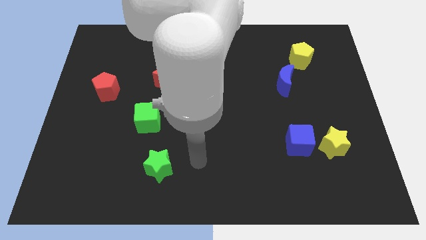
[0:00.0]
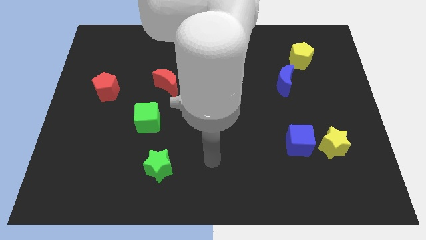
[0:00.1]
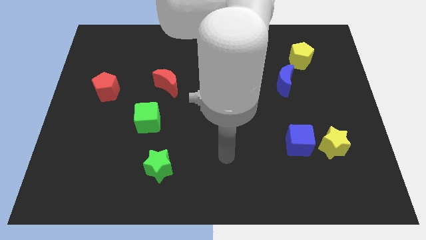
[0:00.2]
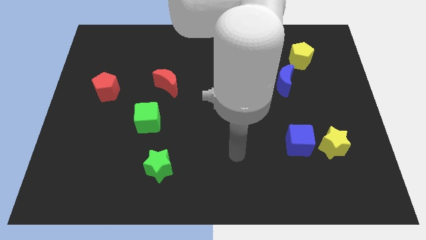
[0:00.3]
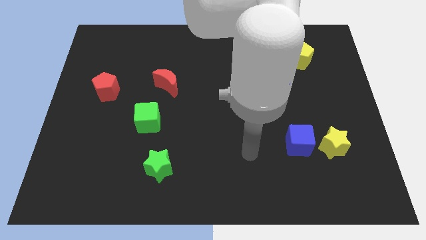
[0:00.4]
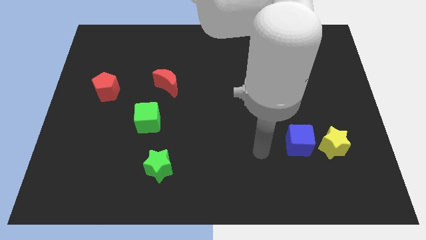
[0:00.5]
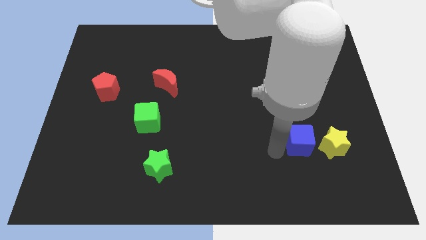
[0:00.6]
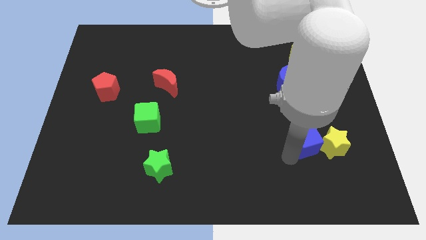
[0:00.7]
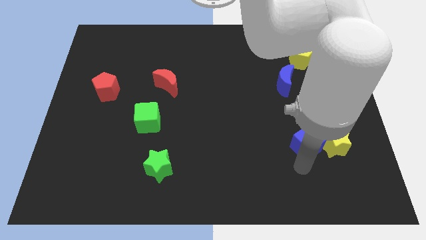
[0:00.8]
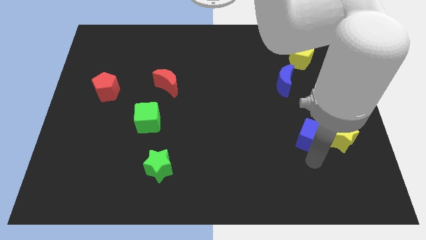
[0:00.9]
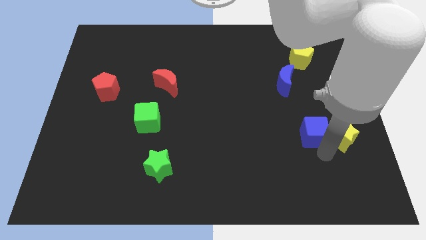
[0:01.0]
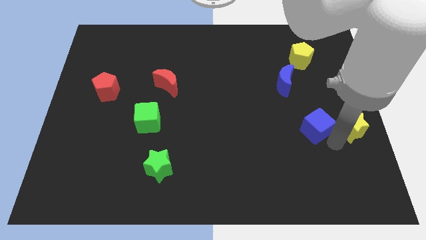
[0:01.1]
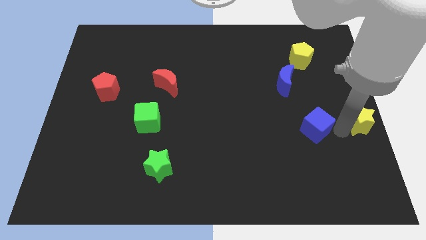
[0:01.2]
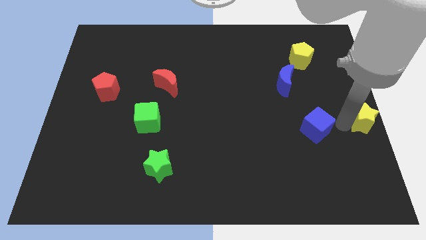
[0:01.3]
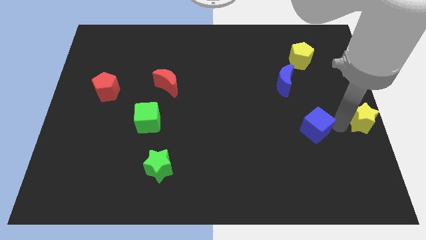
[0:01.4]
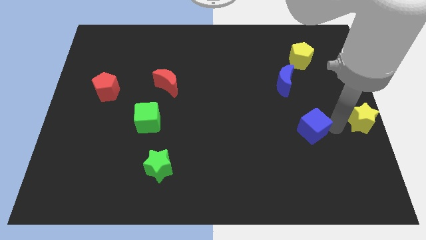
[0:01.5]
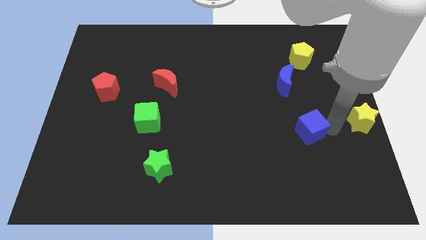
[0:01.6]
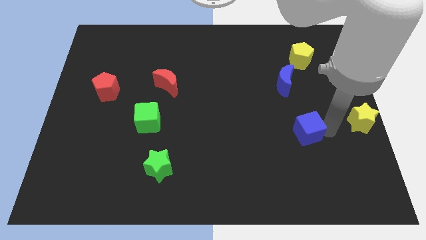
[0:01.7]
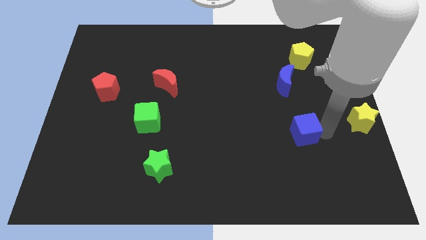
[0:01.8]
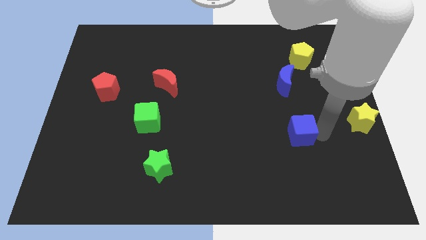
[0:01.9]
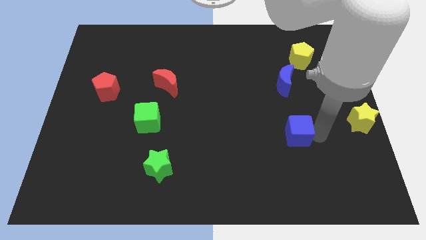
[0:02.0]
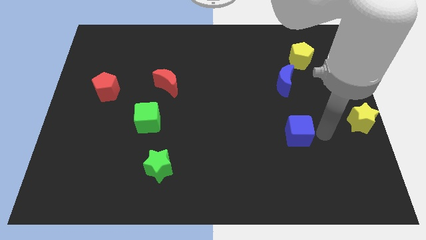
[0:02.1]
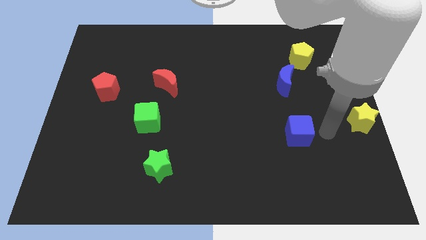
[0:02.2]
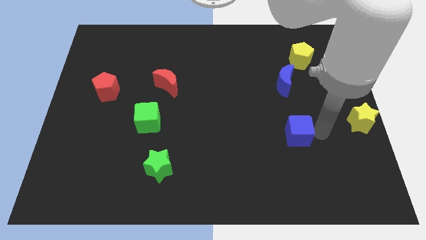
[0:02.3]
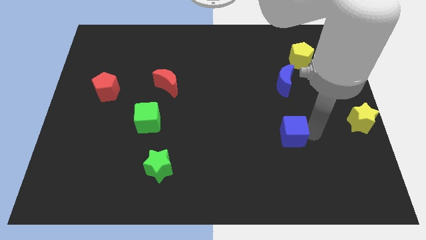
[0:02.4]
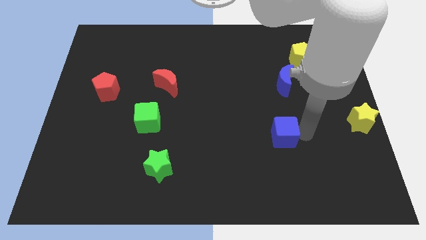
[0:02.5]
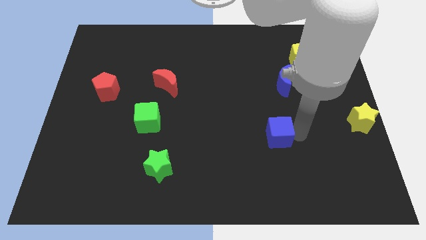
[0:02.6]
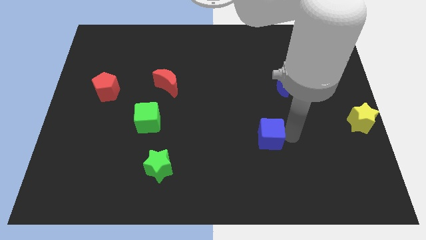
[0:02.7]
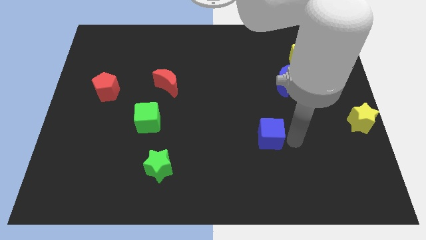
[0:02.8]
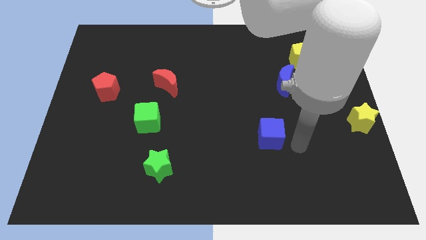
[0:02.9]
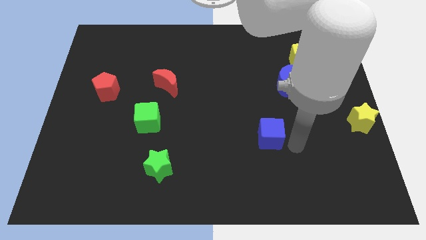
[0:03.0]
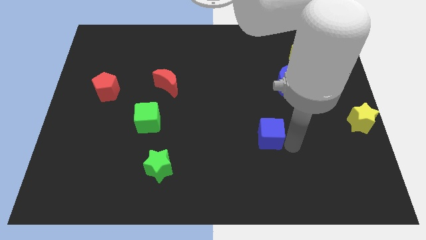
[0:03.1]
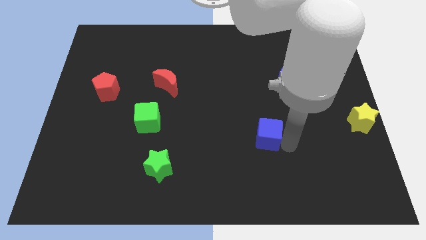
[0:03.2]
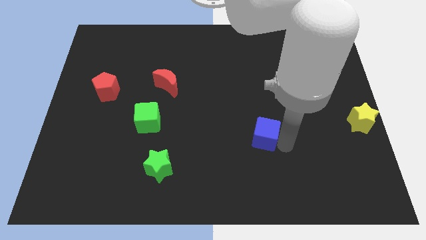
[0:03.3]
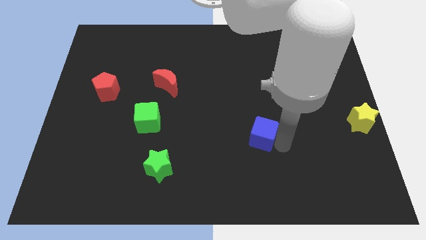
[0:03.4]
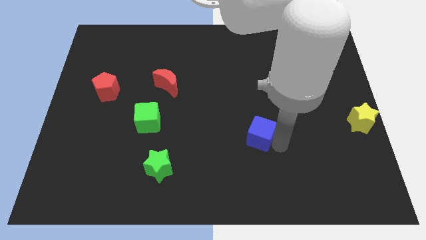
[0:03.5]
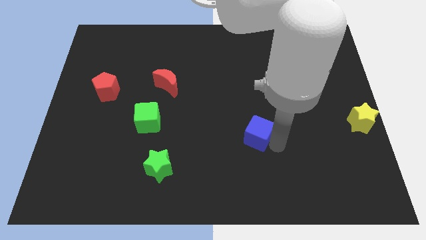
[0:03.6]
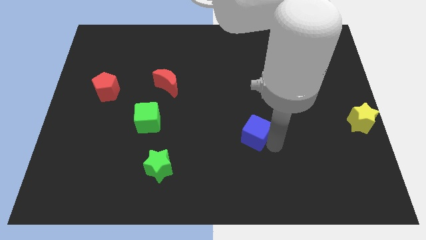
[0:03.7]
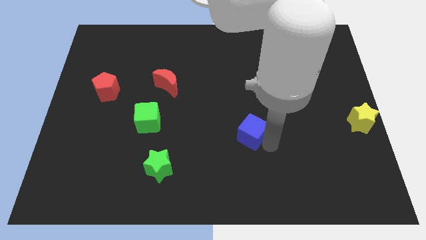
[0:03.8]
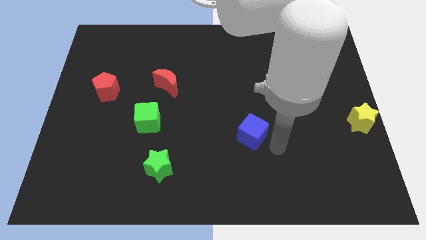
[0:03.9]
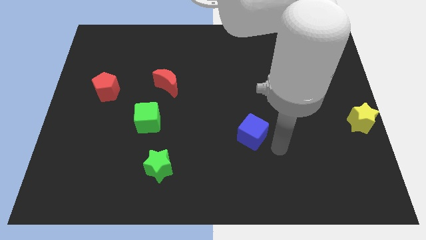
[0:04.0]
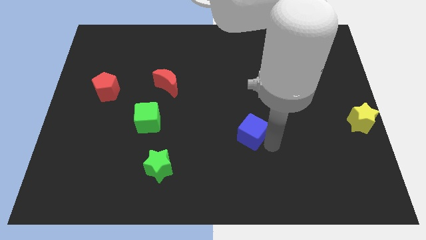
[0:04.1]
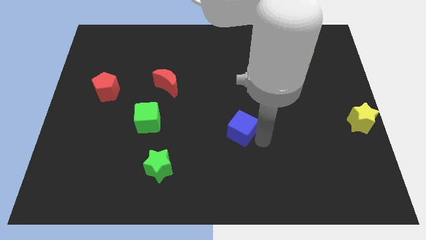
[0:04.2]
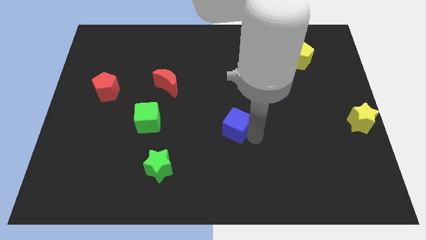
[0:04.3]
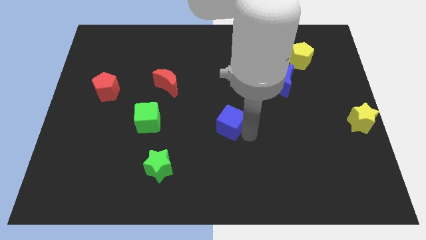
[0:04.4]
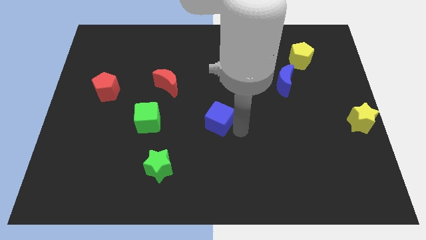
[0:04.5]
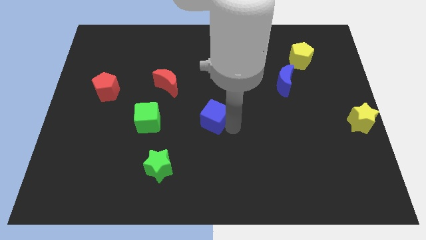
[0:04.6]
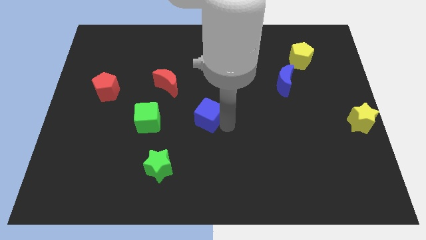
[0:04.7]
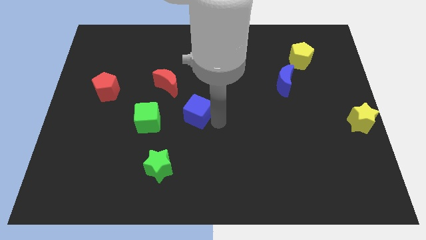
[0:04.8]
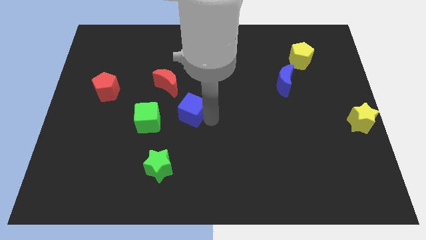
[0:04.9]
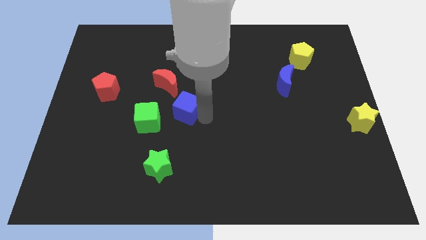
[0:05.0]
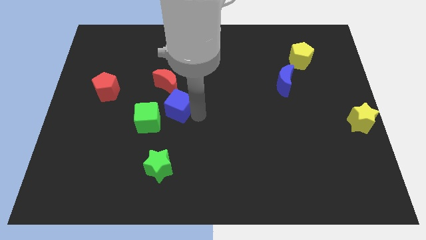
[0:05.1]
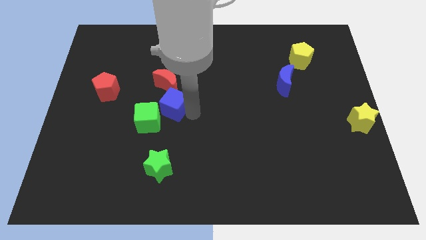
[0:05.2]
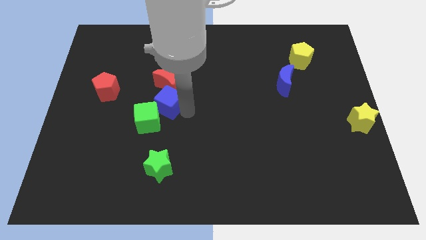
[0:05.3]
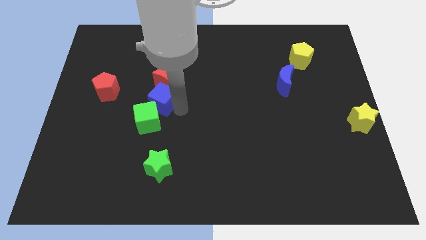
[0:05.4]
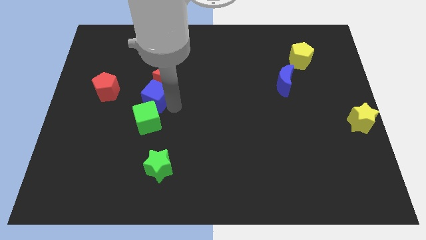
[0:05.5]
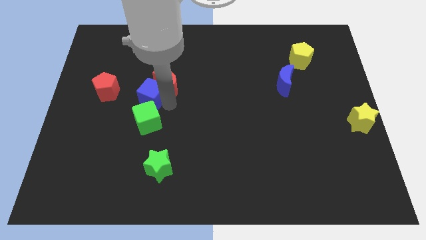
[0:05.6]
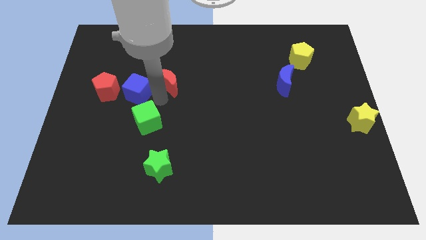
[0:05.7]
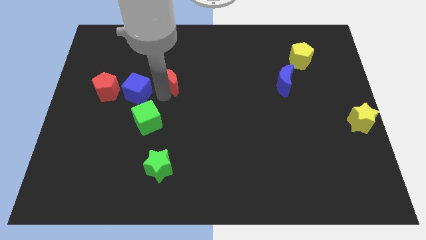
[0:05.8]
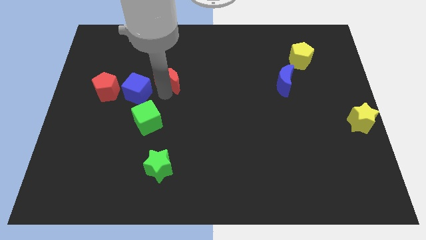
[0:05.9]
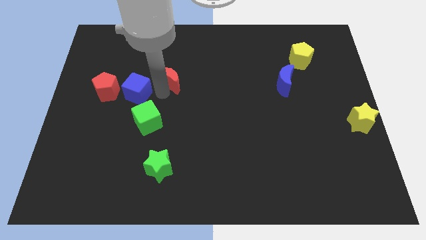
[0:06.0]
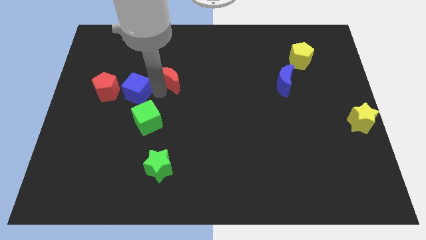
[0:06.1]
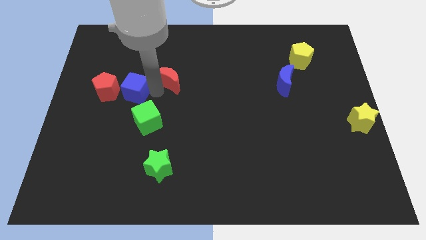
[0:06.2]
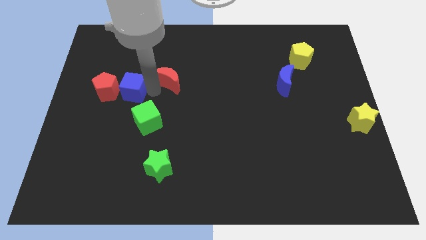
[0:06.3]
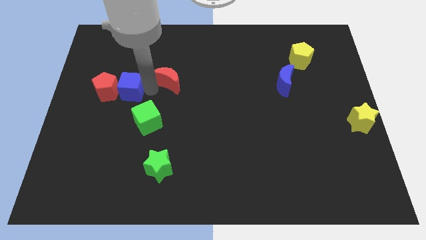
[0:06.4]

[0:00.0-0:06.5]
put the blue cube to the red pentagon
